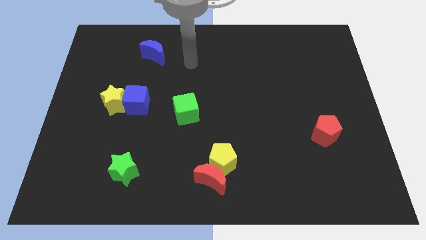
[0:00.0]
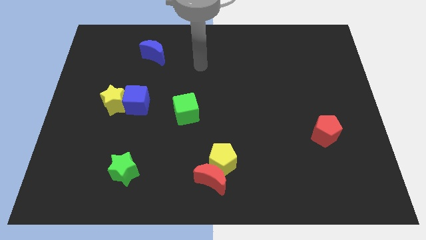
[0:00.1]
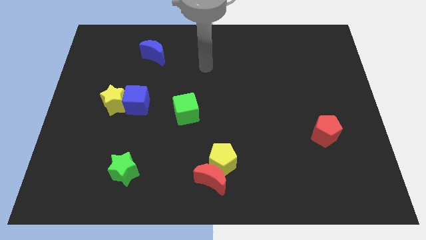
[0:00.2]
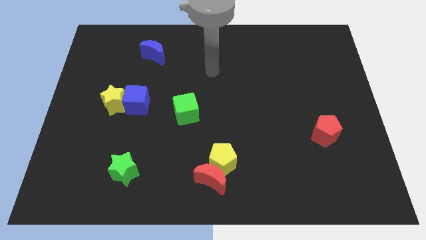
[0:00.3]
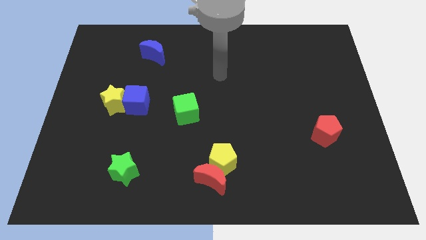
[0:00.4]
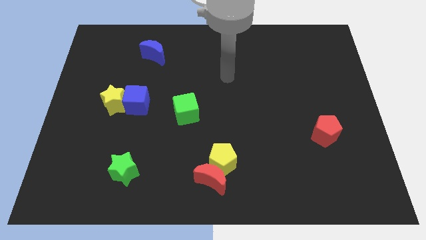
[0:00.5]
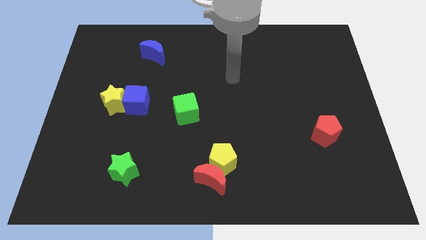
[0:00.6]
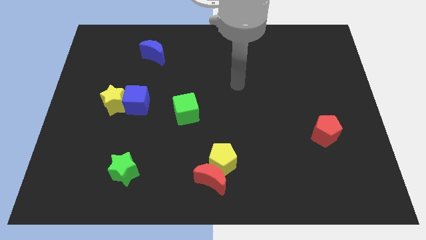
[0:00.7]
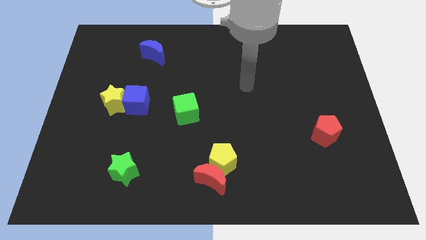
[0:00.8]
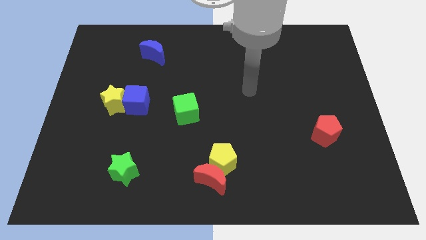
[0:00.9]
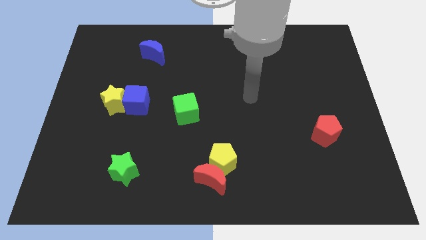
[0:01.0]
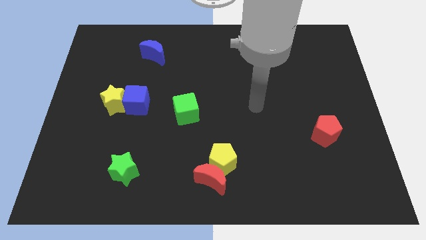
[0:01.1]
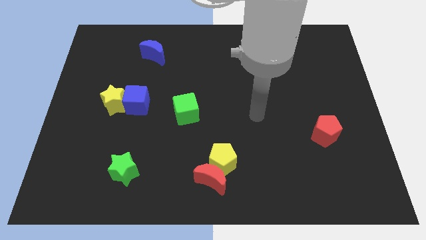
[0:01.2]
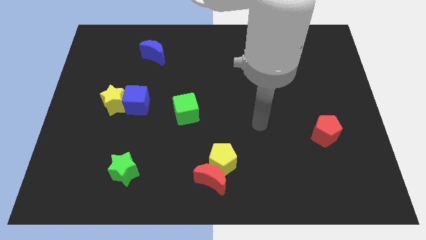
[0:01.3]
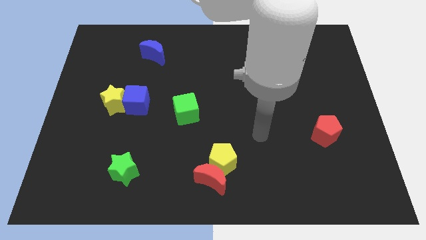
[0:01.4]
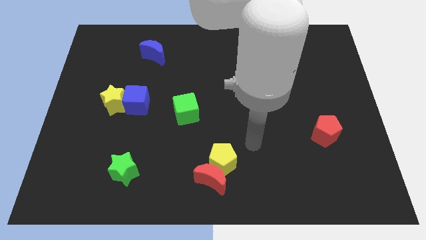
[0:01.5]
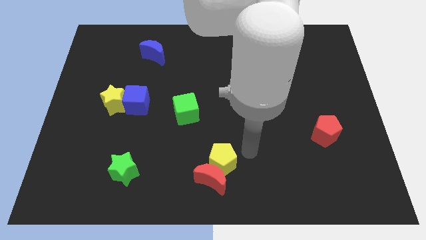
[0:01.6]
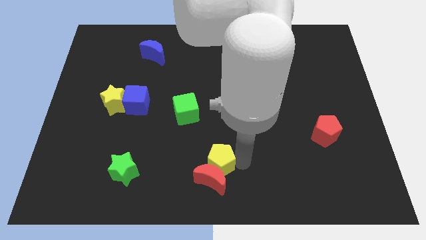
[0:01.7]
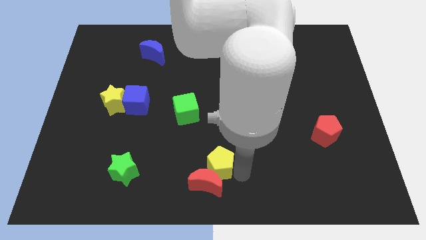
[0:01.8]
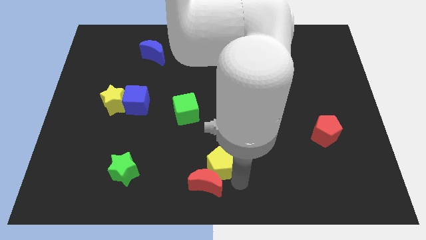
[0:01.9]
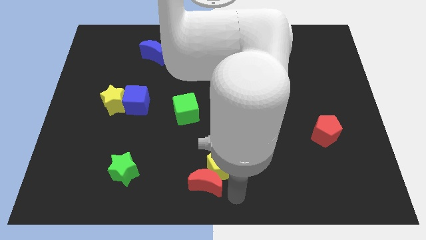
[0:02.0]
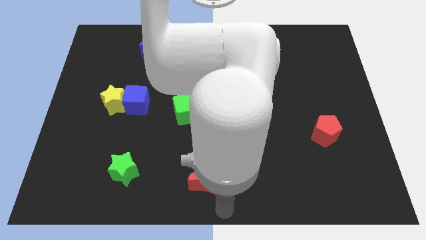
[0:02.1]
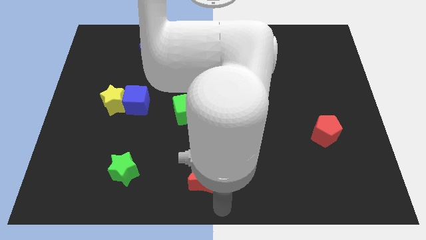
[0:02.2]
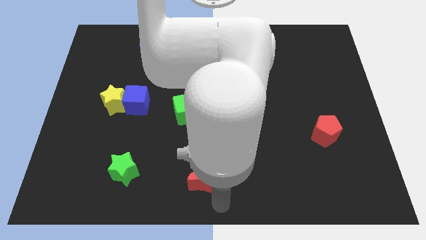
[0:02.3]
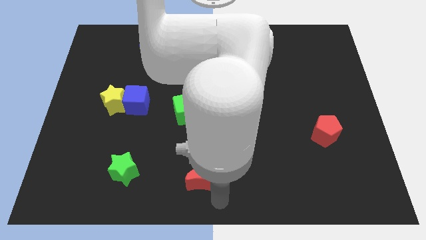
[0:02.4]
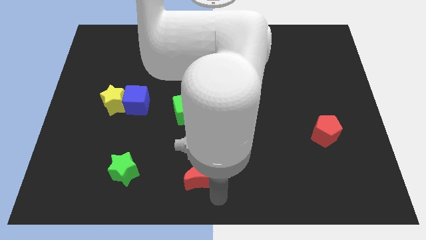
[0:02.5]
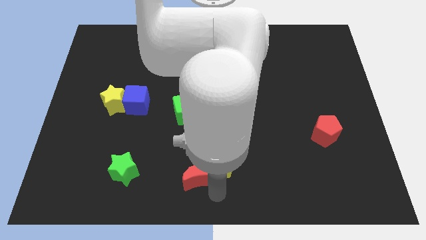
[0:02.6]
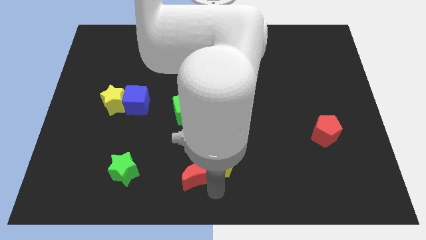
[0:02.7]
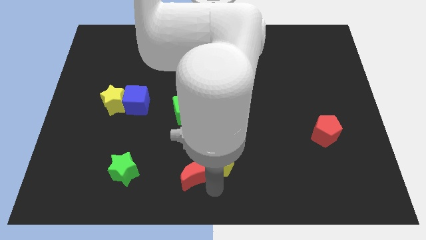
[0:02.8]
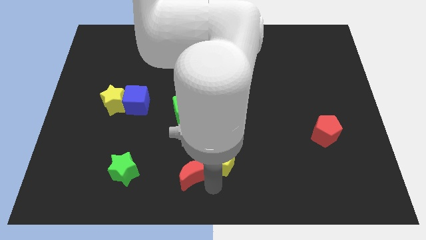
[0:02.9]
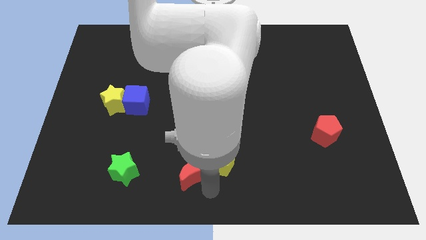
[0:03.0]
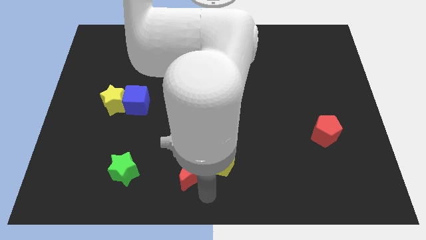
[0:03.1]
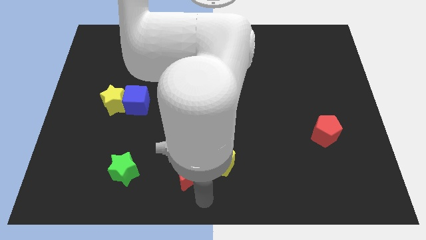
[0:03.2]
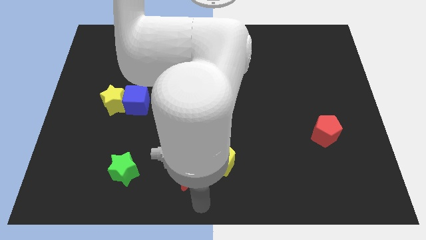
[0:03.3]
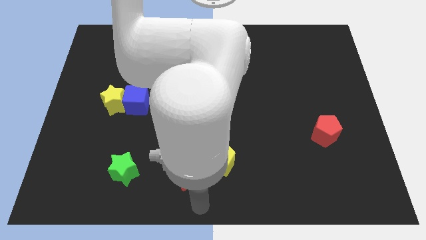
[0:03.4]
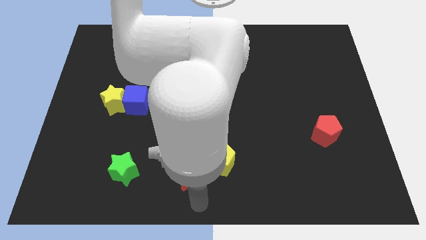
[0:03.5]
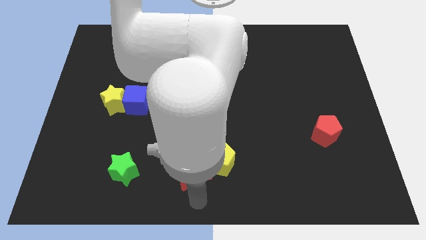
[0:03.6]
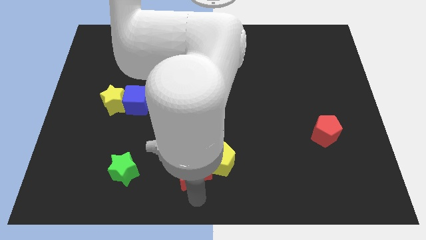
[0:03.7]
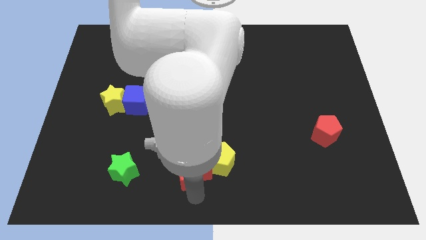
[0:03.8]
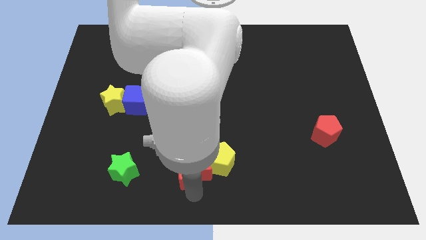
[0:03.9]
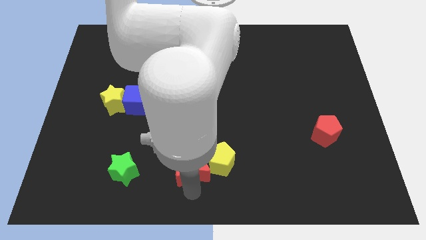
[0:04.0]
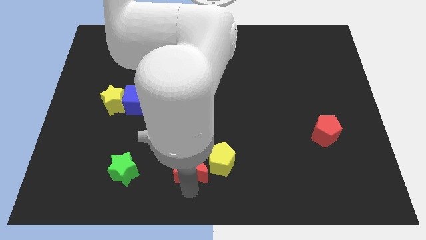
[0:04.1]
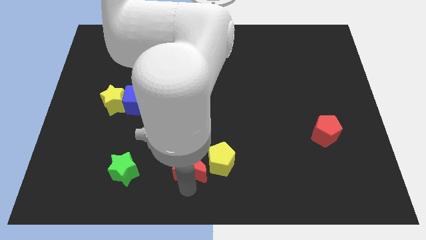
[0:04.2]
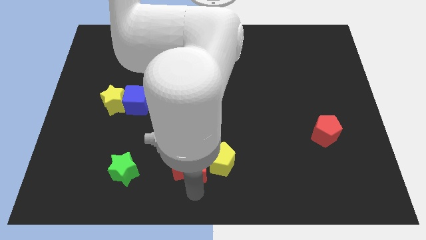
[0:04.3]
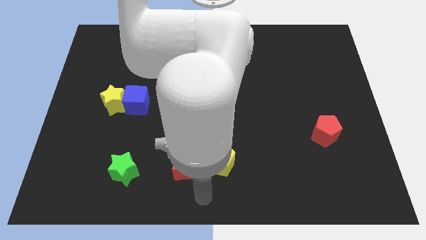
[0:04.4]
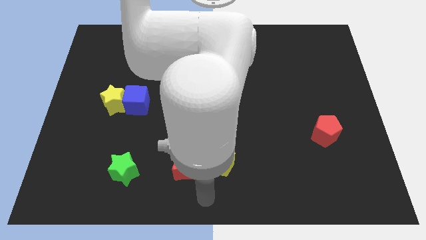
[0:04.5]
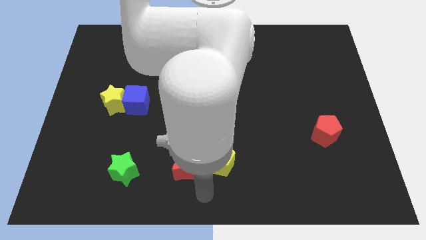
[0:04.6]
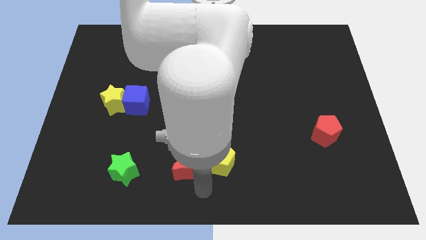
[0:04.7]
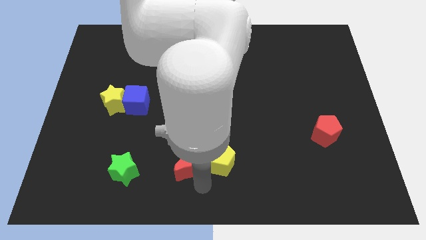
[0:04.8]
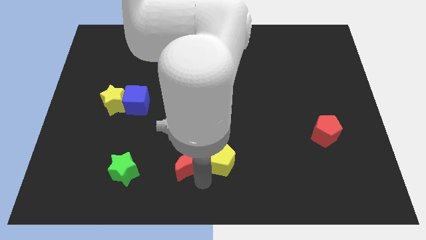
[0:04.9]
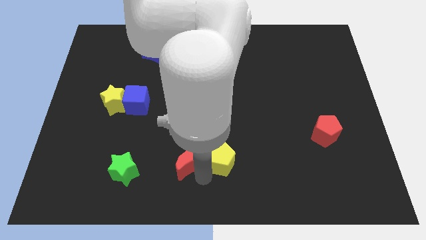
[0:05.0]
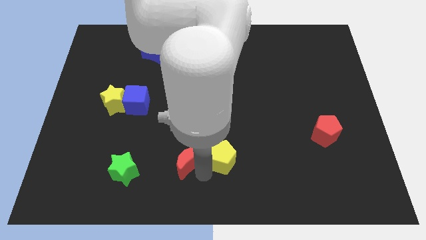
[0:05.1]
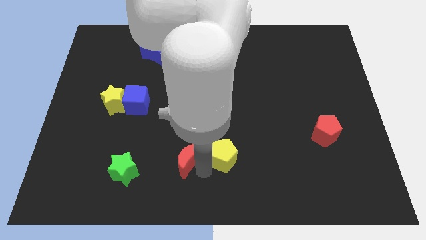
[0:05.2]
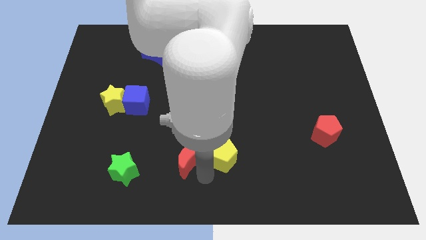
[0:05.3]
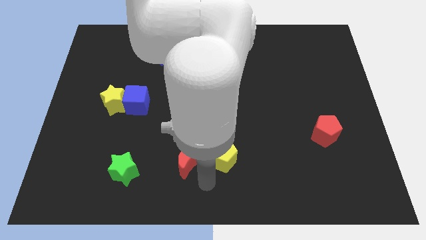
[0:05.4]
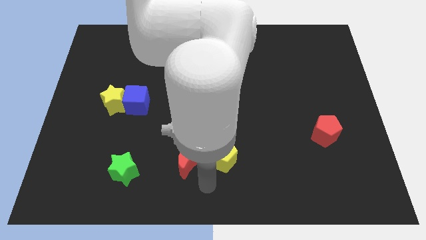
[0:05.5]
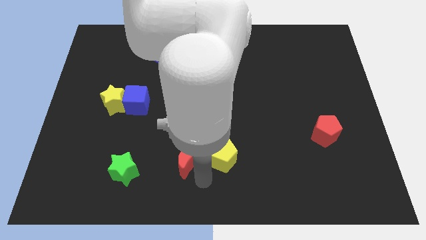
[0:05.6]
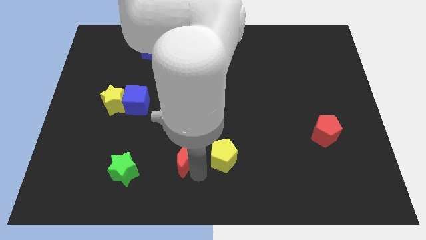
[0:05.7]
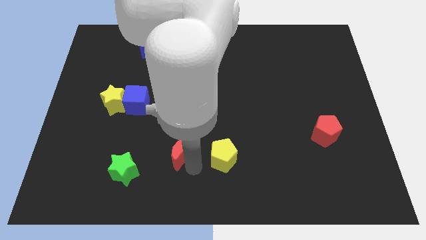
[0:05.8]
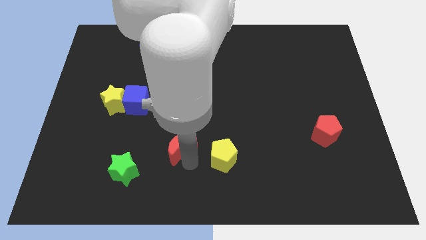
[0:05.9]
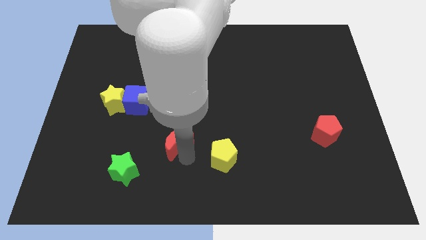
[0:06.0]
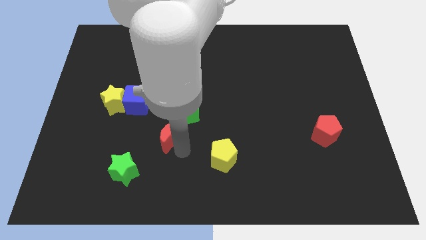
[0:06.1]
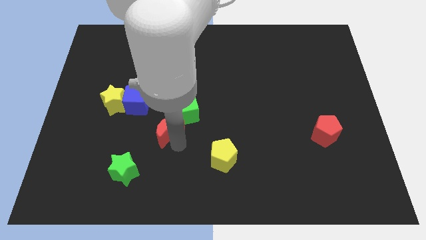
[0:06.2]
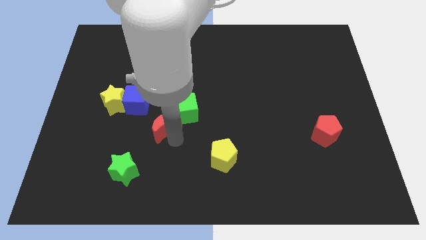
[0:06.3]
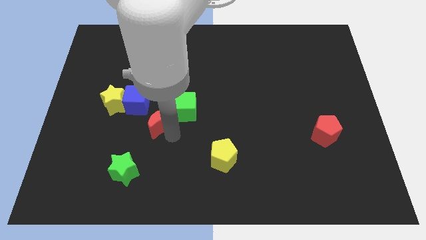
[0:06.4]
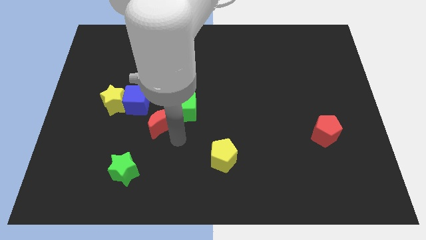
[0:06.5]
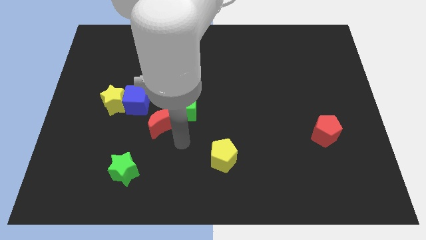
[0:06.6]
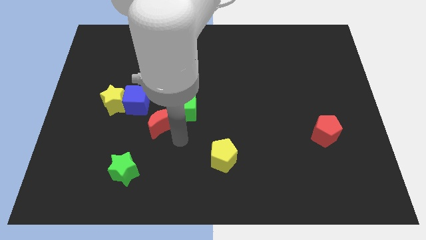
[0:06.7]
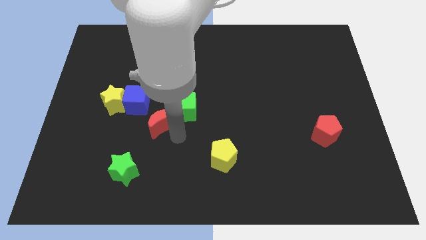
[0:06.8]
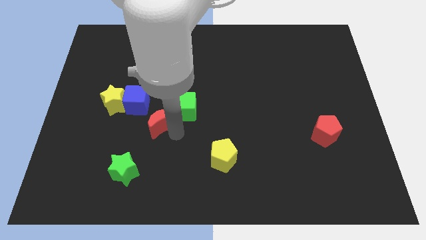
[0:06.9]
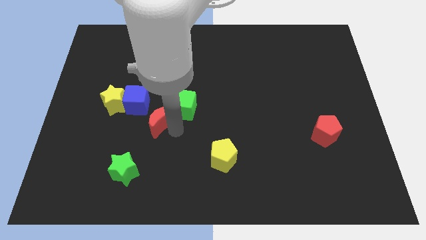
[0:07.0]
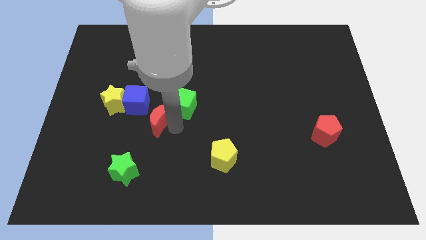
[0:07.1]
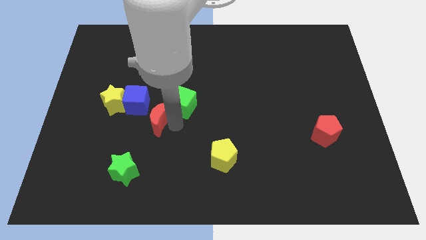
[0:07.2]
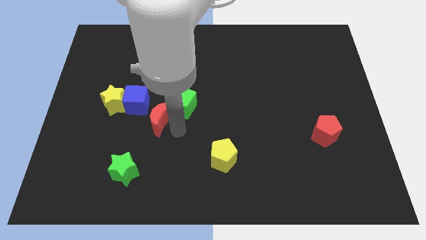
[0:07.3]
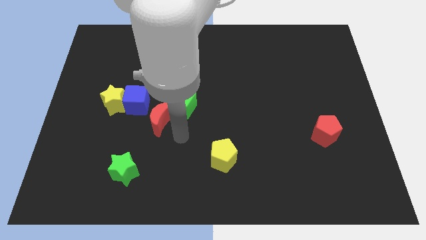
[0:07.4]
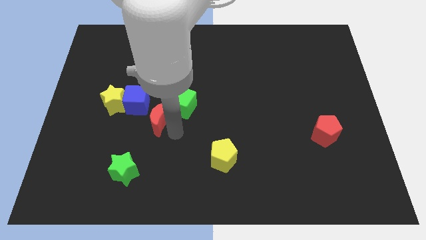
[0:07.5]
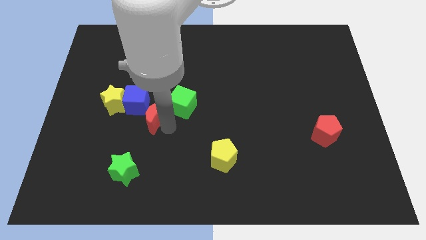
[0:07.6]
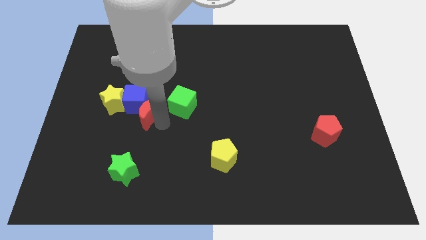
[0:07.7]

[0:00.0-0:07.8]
slide the red moon to the blue cube
